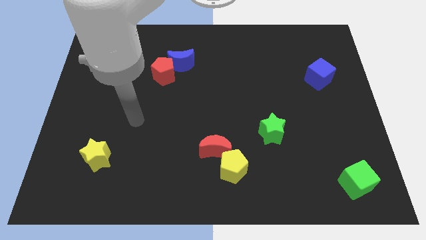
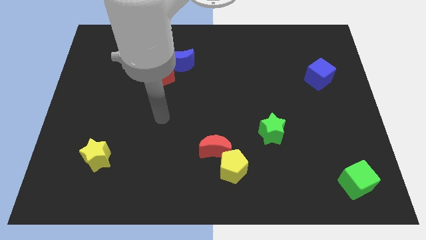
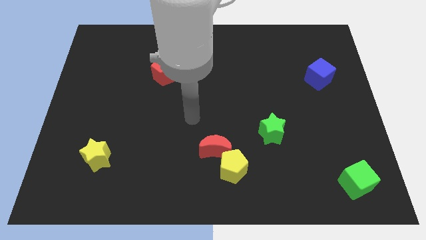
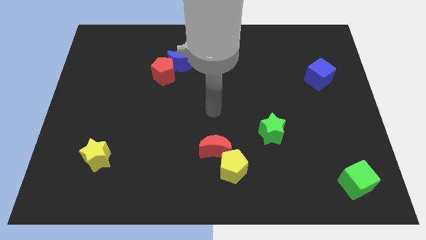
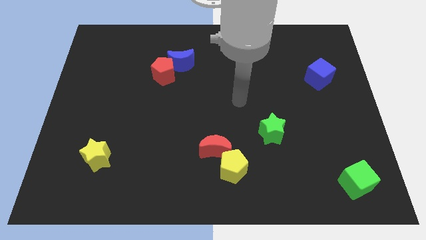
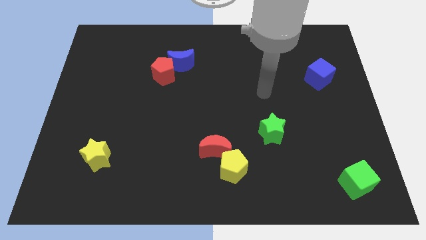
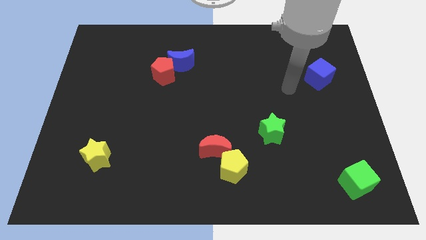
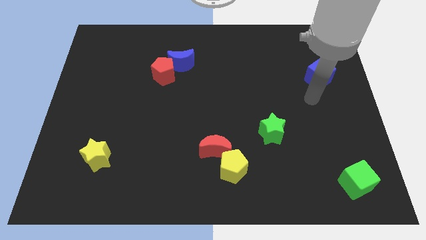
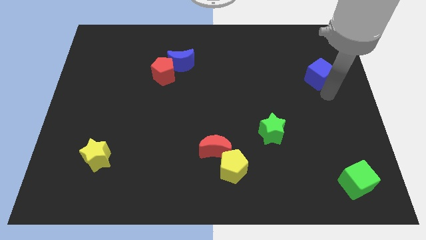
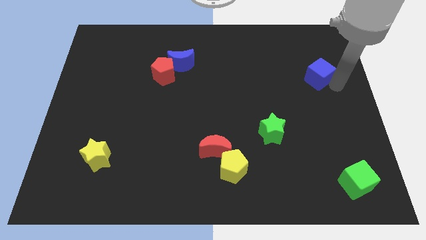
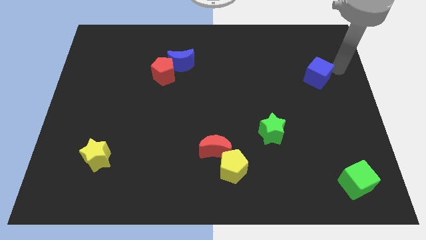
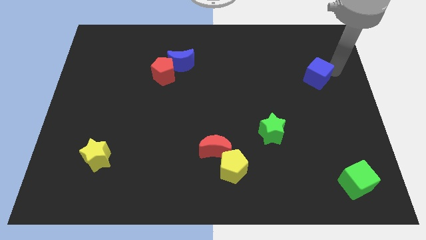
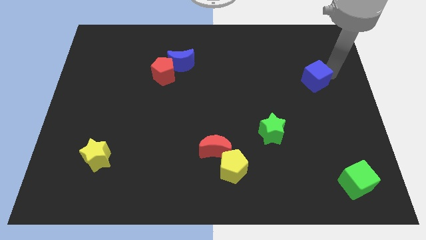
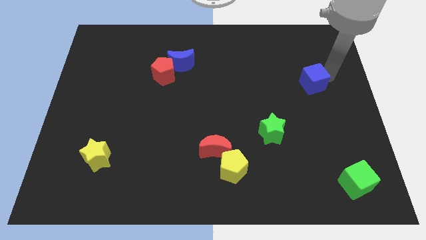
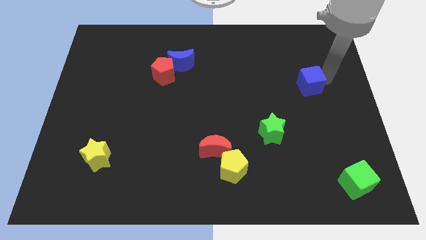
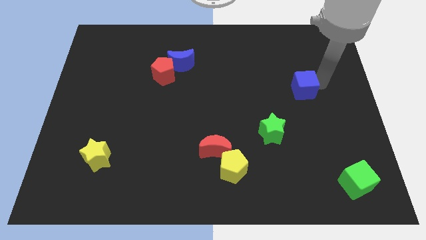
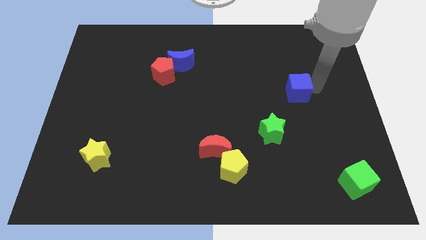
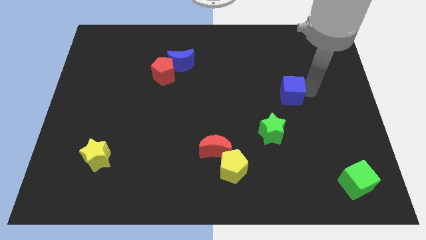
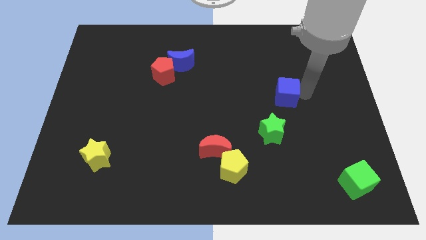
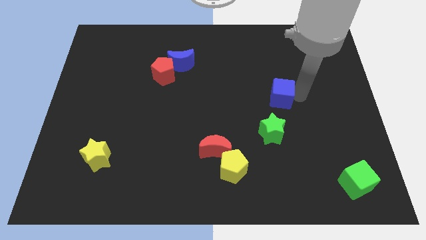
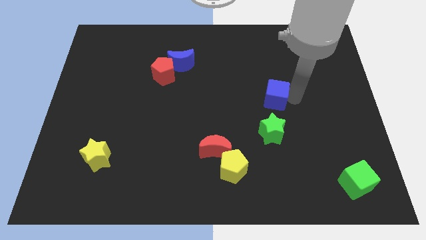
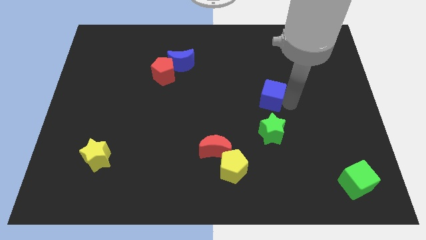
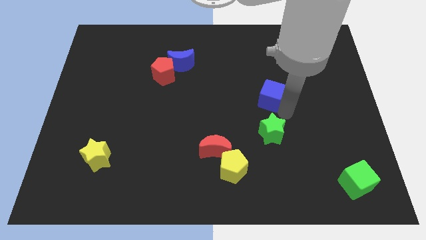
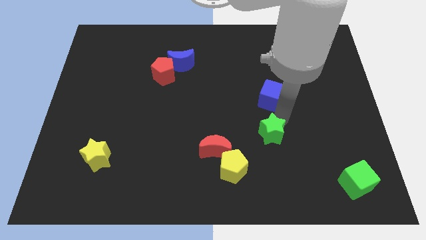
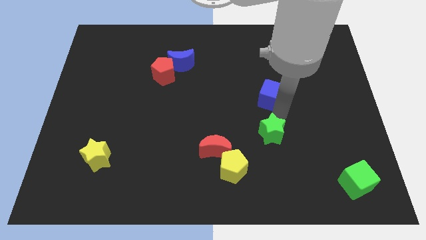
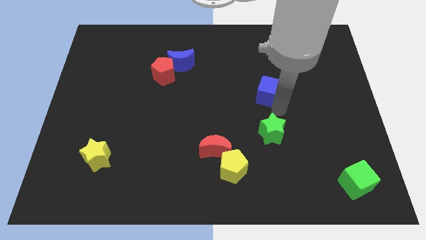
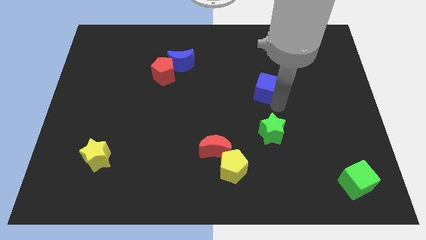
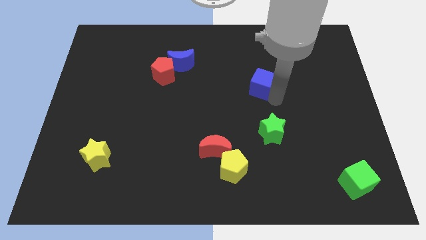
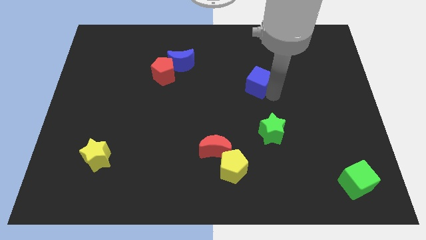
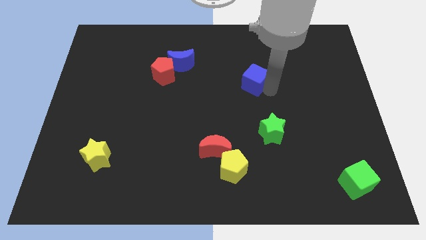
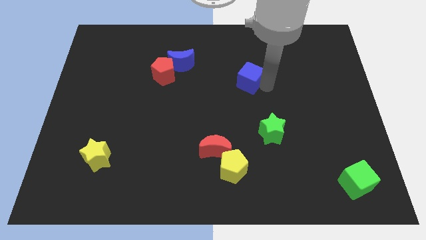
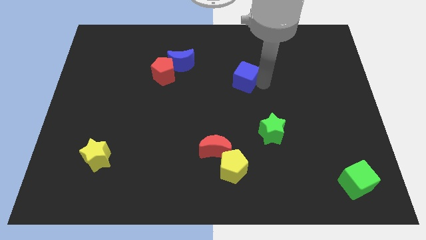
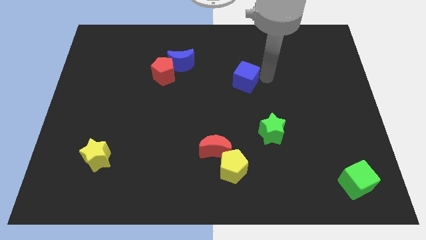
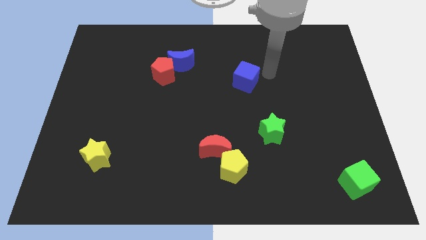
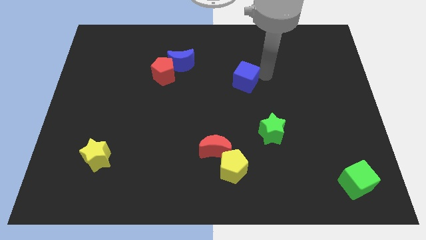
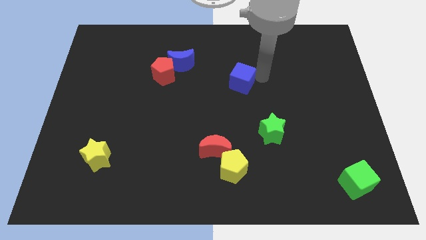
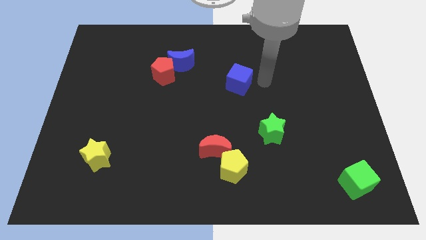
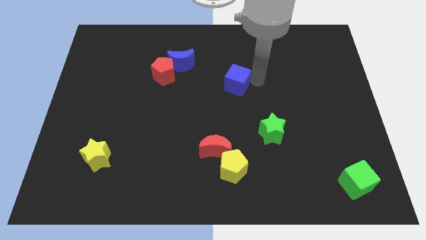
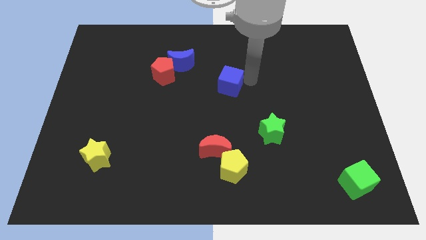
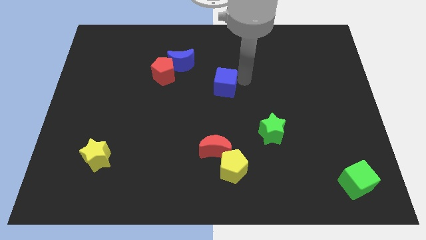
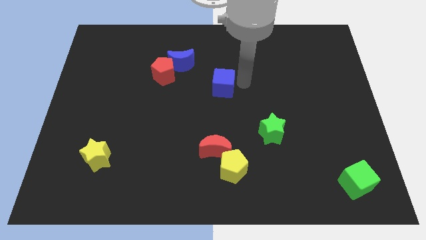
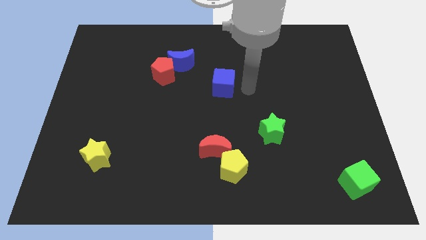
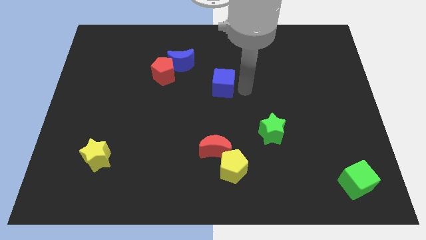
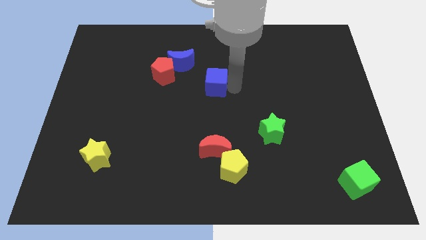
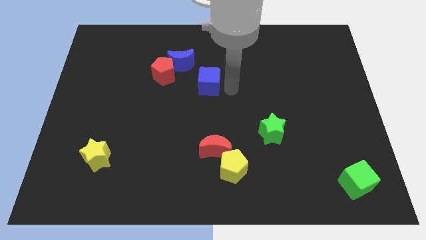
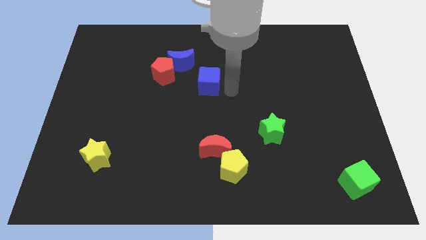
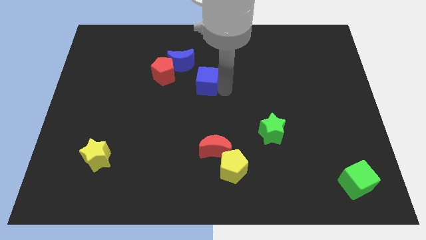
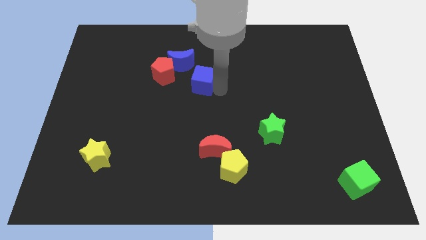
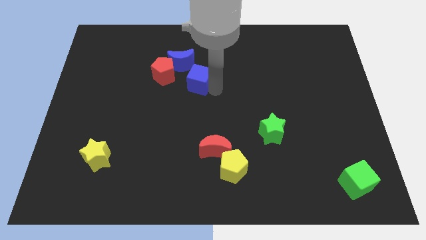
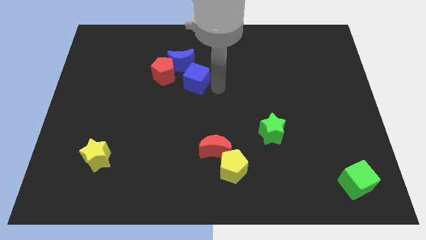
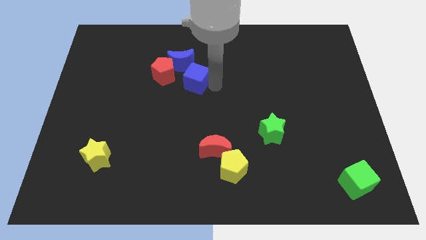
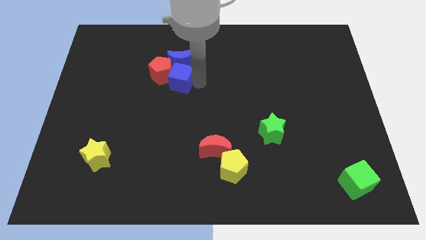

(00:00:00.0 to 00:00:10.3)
move the blue cube next to the red pentagon

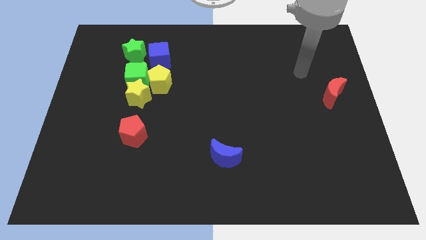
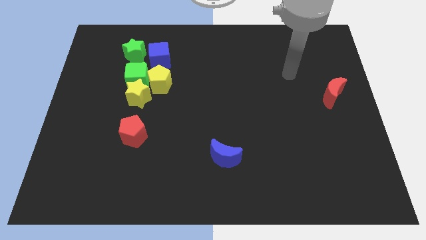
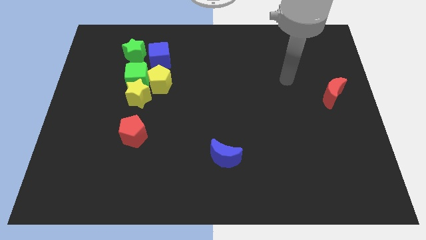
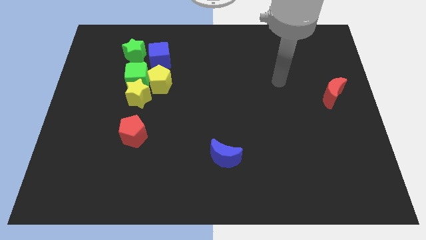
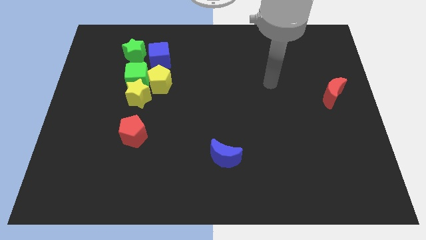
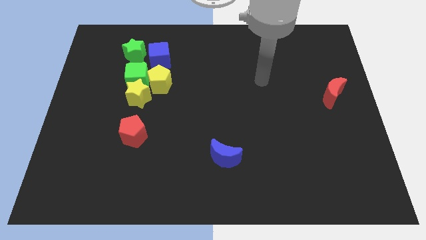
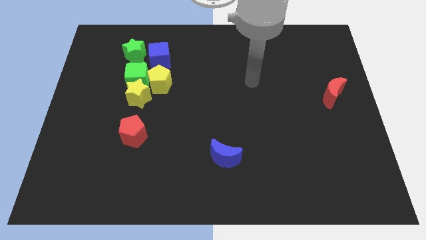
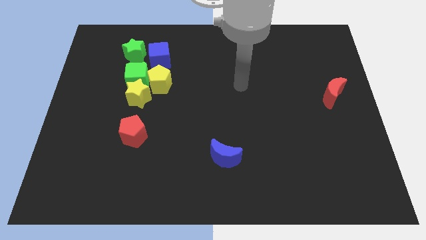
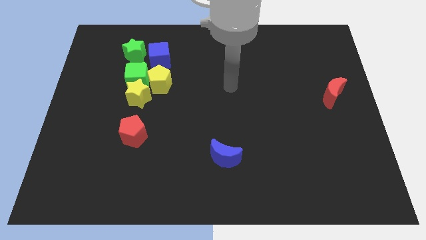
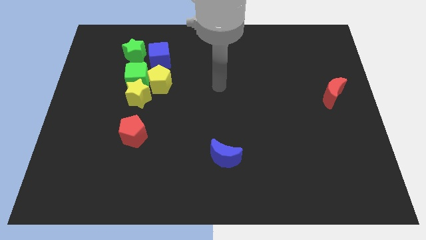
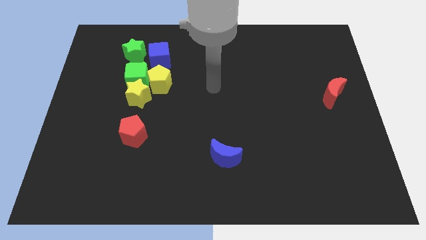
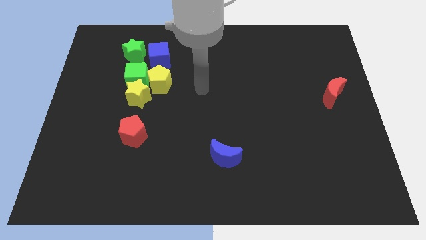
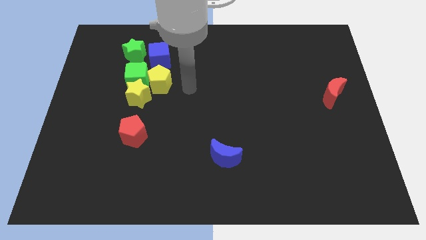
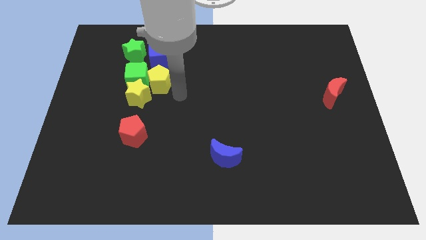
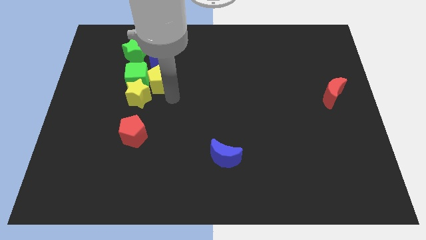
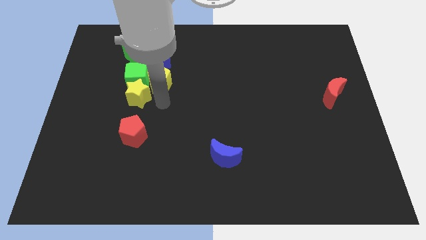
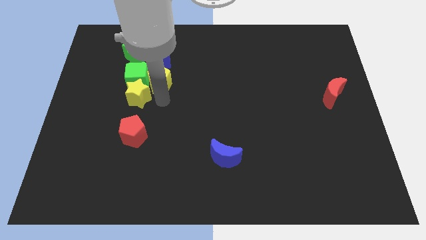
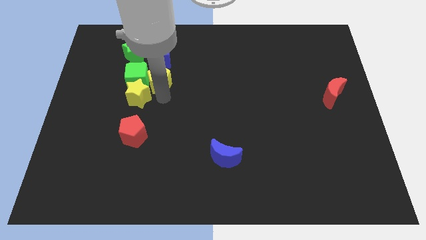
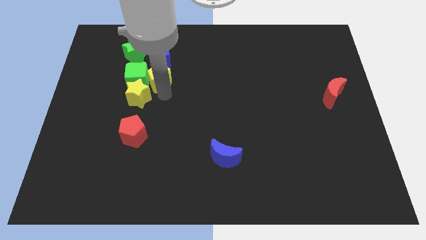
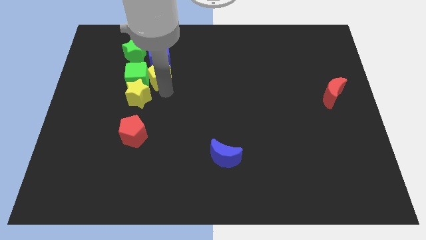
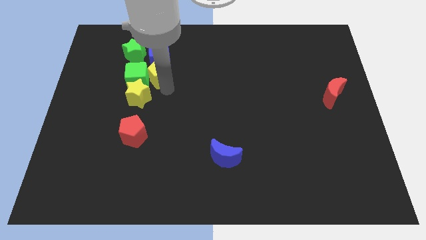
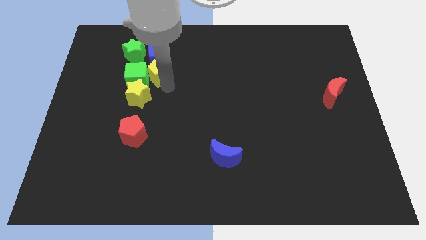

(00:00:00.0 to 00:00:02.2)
slide the yellow pentagon next to the blue cube
